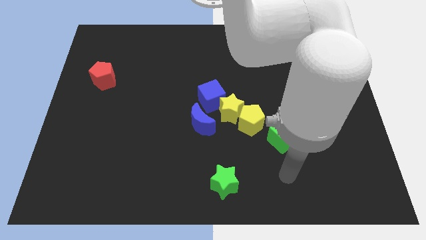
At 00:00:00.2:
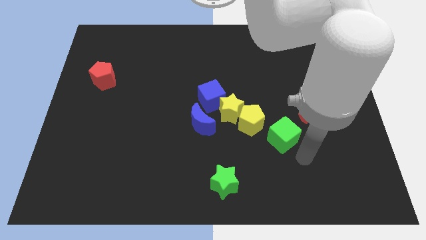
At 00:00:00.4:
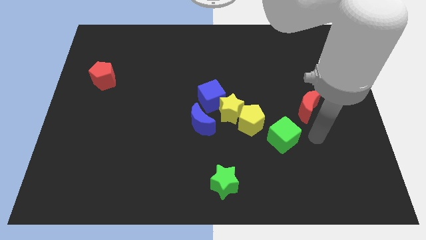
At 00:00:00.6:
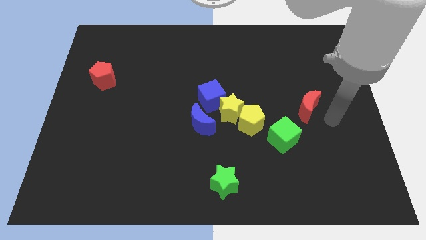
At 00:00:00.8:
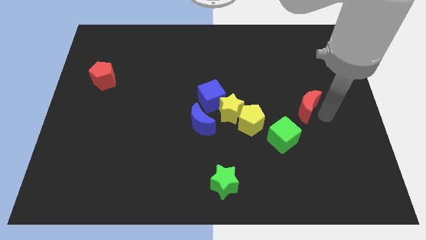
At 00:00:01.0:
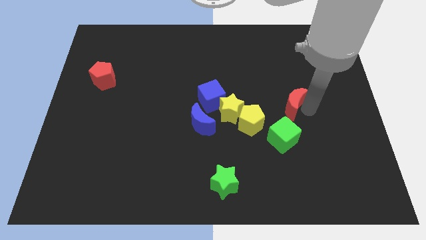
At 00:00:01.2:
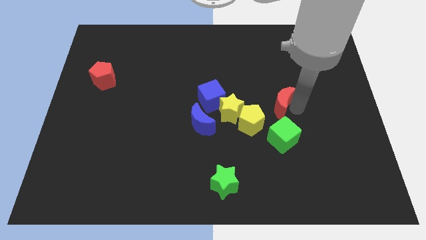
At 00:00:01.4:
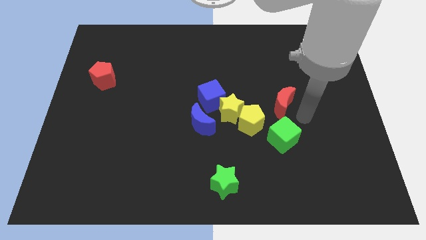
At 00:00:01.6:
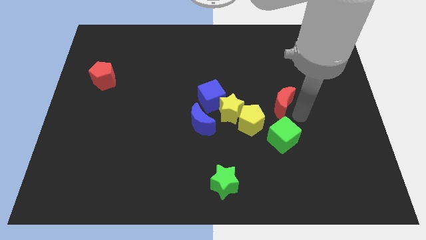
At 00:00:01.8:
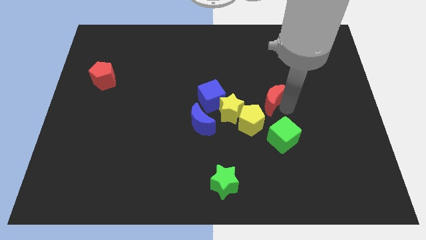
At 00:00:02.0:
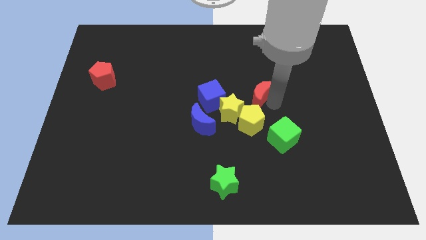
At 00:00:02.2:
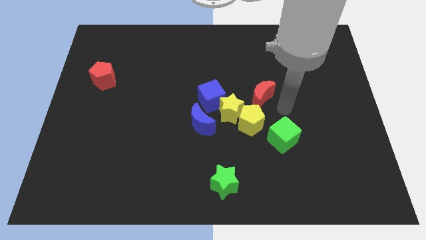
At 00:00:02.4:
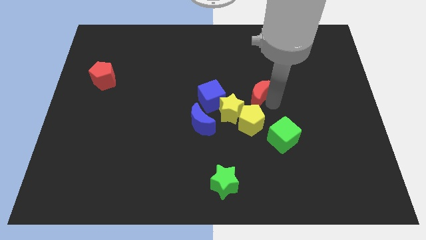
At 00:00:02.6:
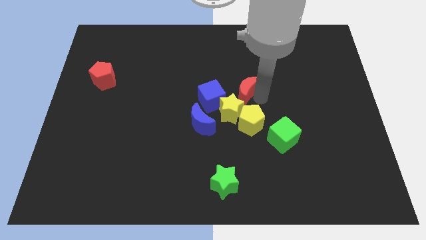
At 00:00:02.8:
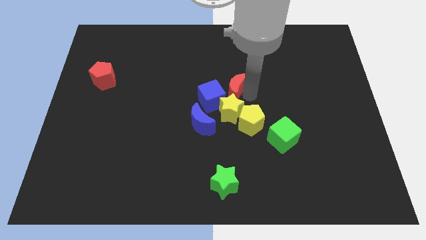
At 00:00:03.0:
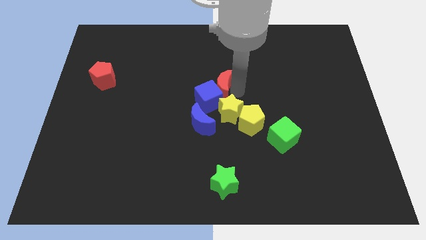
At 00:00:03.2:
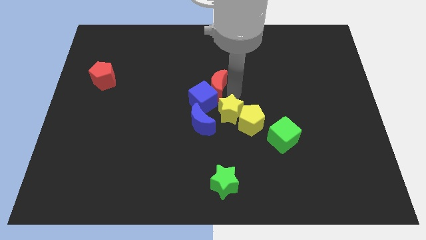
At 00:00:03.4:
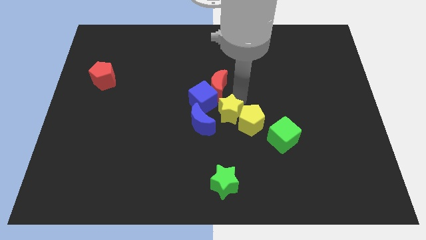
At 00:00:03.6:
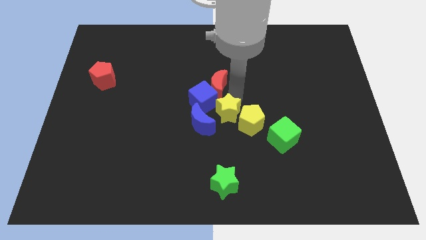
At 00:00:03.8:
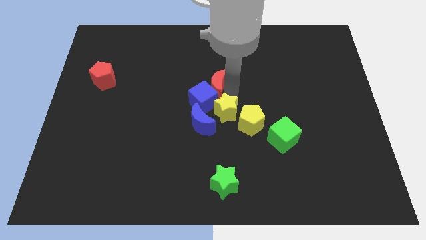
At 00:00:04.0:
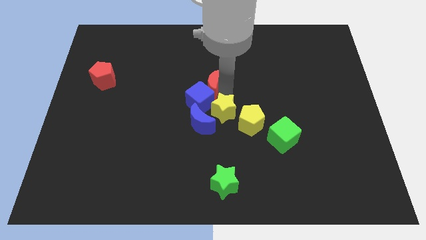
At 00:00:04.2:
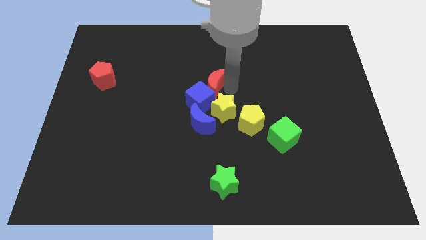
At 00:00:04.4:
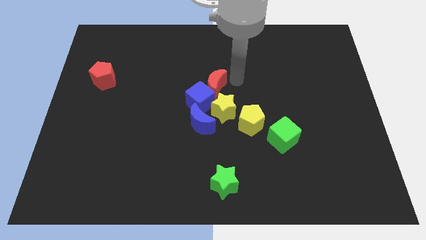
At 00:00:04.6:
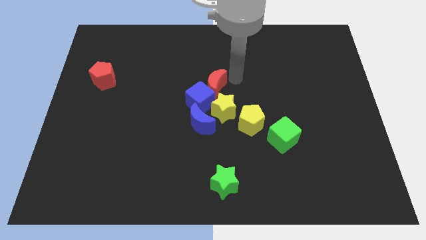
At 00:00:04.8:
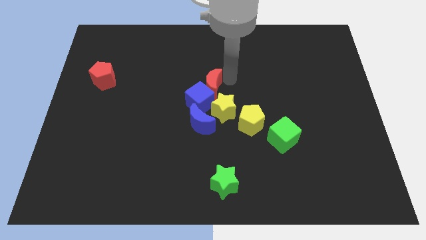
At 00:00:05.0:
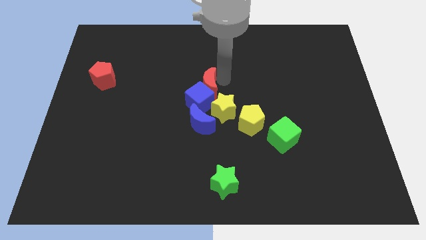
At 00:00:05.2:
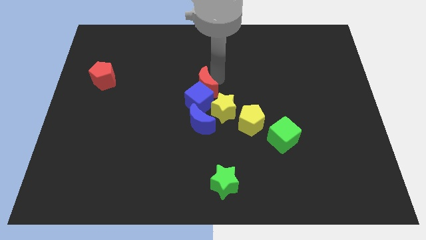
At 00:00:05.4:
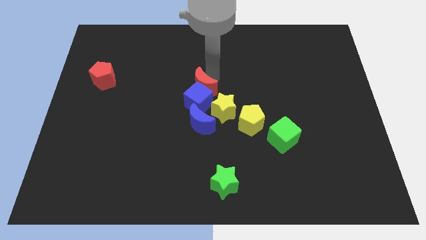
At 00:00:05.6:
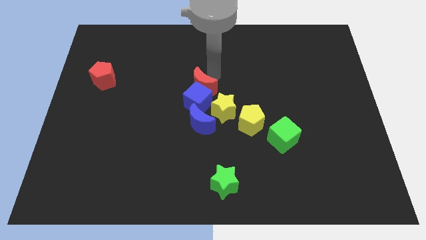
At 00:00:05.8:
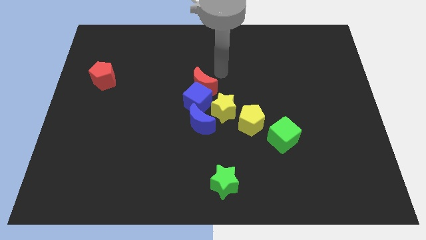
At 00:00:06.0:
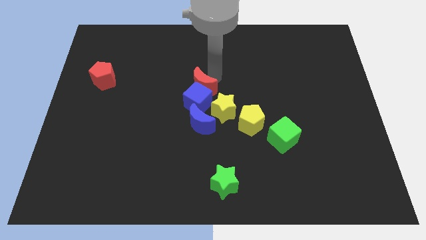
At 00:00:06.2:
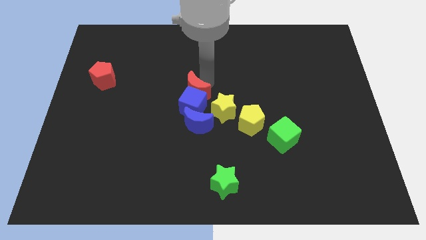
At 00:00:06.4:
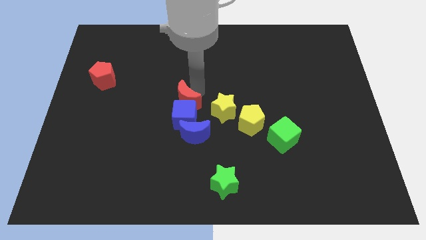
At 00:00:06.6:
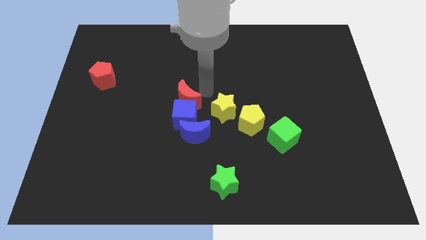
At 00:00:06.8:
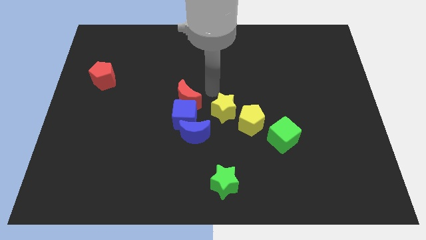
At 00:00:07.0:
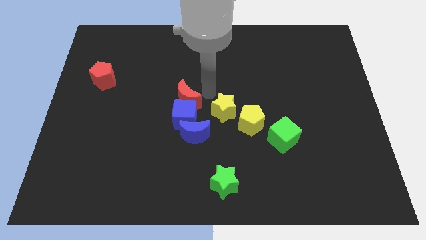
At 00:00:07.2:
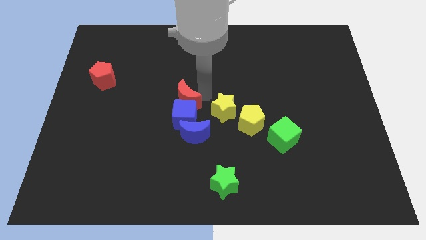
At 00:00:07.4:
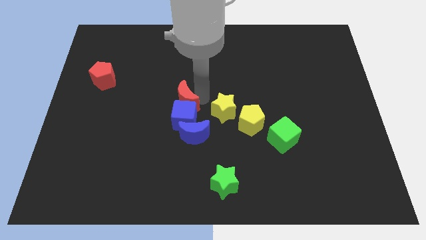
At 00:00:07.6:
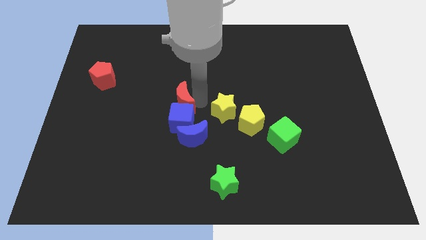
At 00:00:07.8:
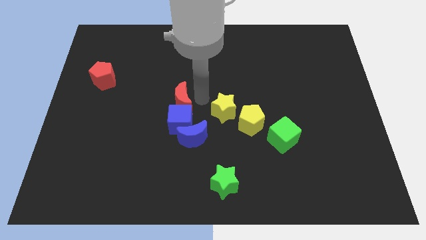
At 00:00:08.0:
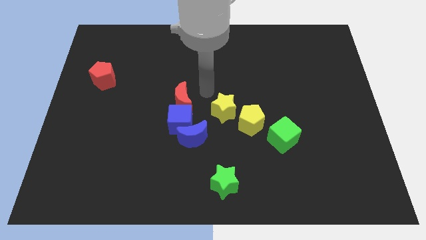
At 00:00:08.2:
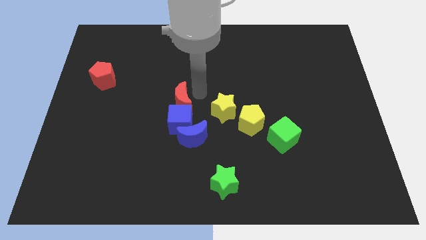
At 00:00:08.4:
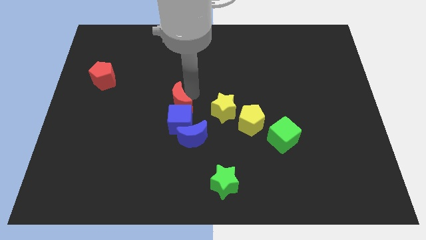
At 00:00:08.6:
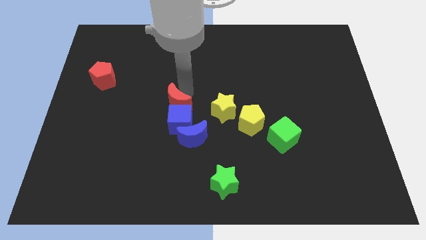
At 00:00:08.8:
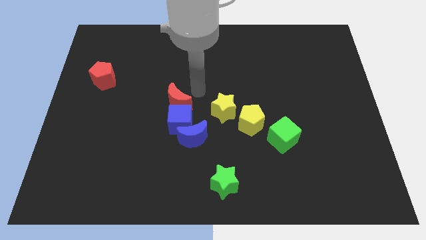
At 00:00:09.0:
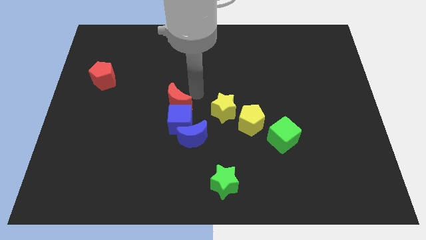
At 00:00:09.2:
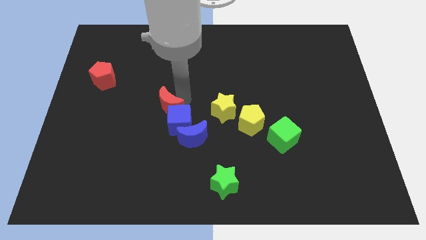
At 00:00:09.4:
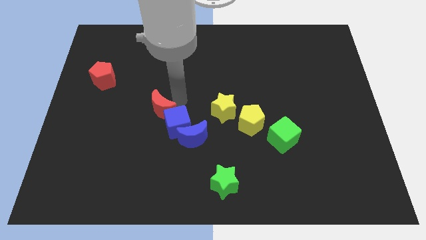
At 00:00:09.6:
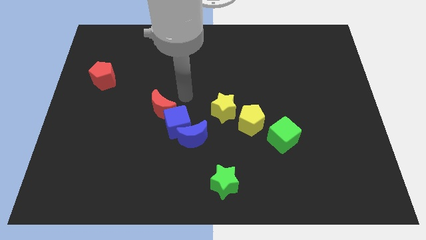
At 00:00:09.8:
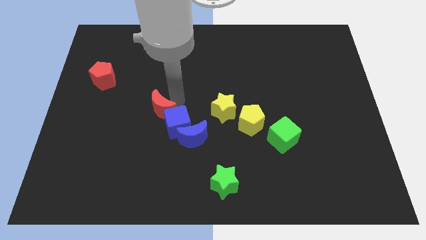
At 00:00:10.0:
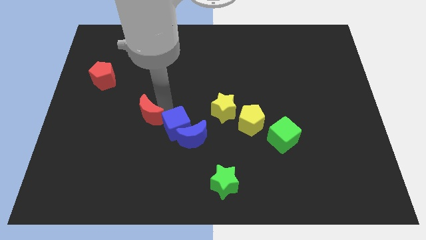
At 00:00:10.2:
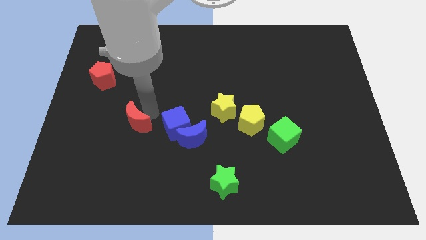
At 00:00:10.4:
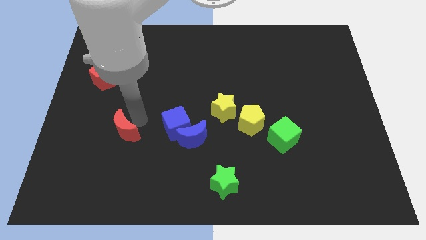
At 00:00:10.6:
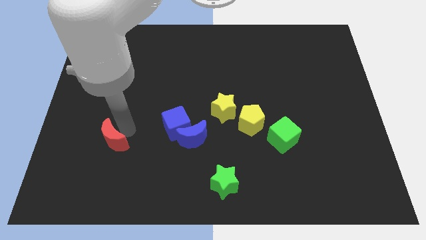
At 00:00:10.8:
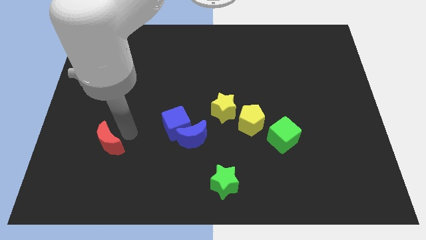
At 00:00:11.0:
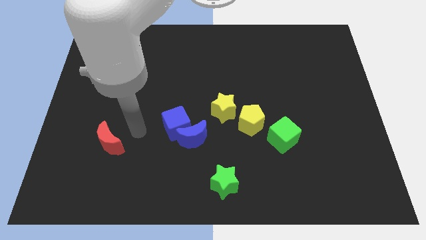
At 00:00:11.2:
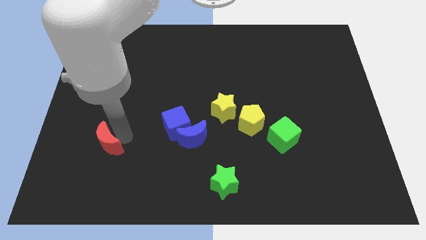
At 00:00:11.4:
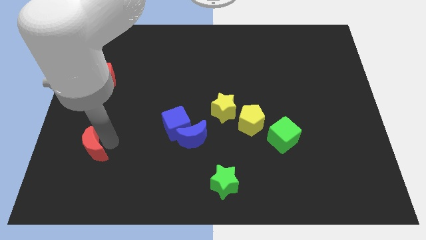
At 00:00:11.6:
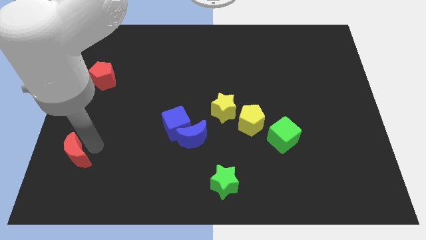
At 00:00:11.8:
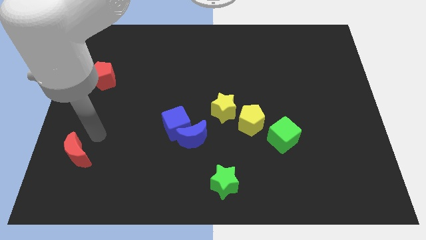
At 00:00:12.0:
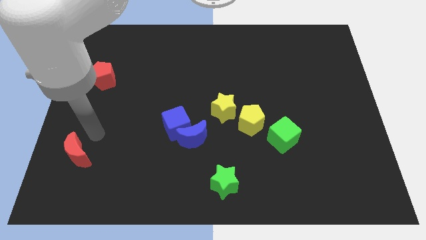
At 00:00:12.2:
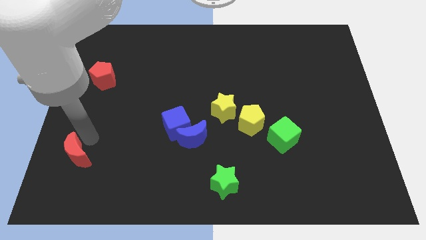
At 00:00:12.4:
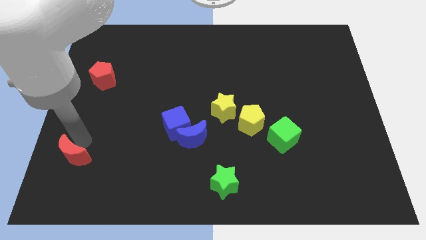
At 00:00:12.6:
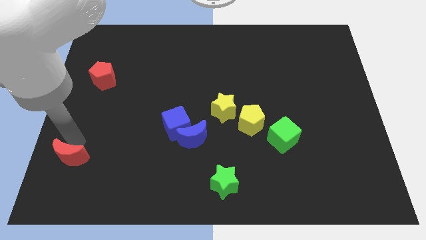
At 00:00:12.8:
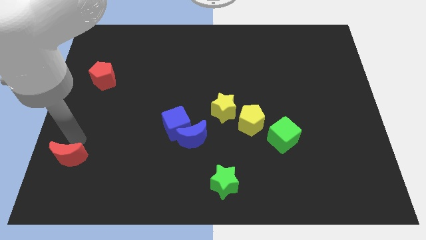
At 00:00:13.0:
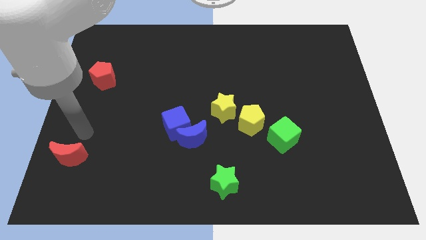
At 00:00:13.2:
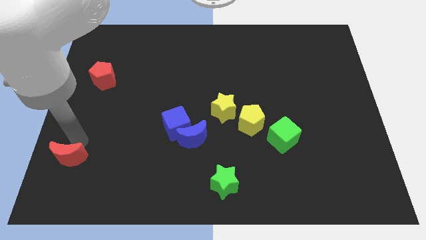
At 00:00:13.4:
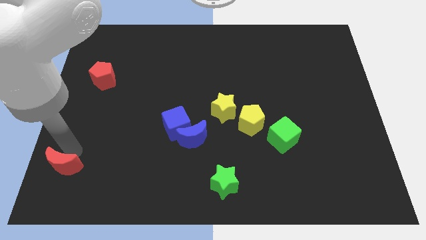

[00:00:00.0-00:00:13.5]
put the red moon to the lower left corner
